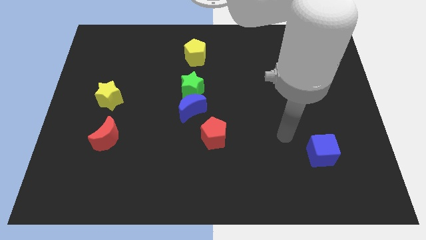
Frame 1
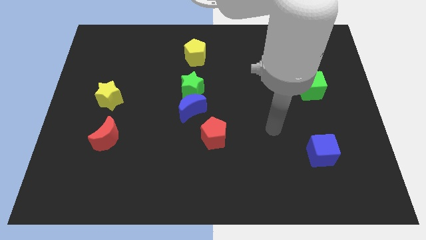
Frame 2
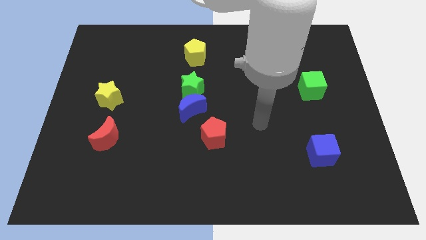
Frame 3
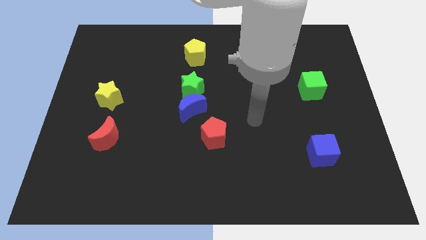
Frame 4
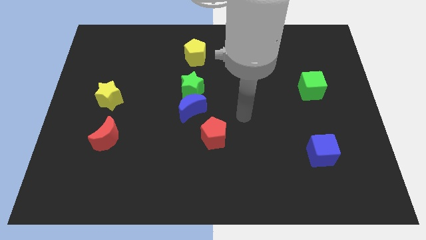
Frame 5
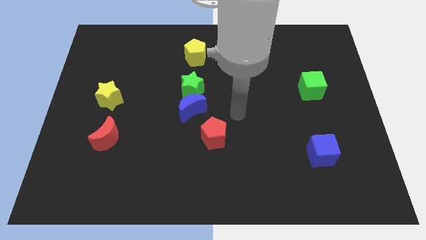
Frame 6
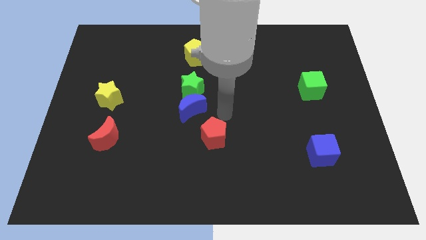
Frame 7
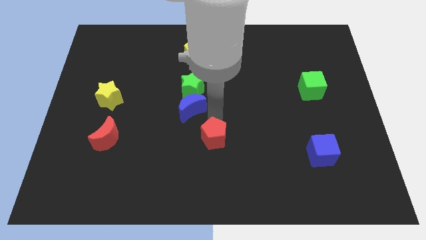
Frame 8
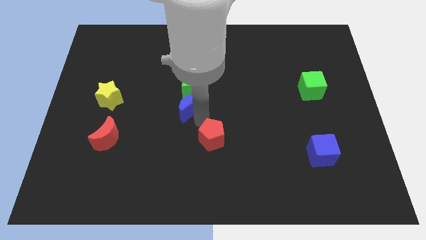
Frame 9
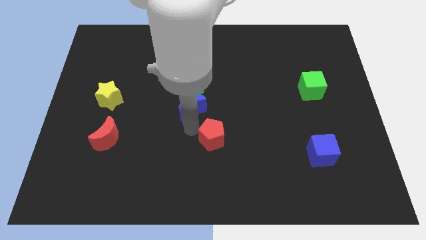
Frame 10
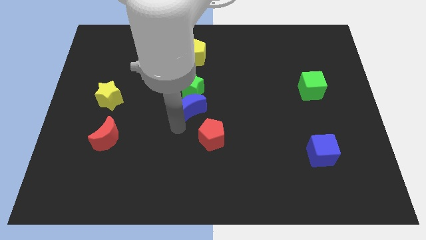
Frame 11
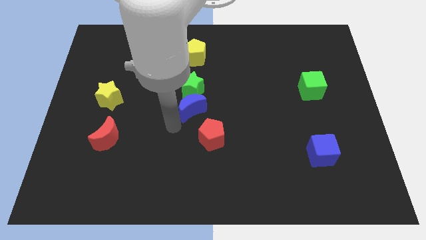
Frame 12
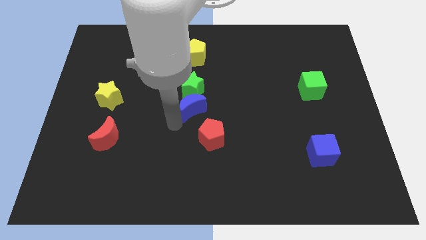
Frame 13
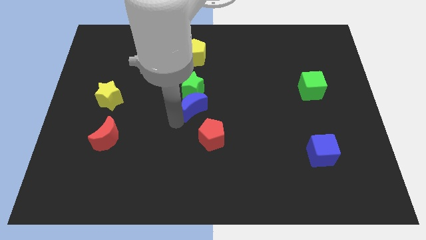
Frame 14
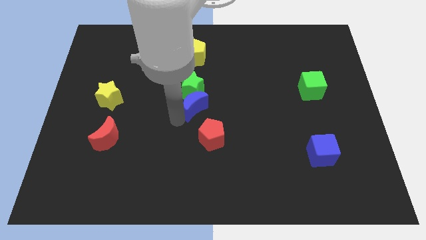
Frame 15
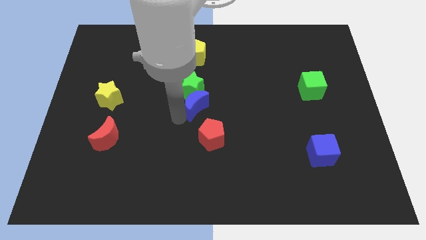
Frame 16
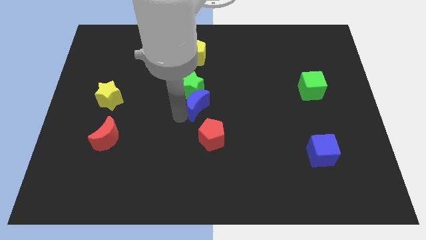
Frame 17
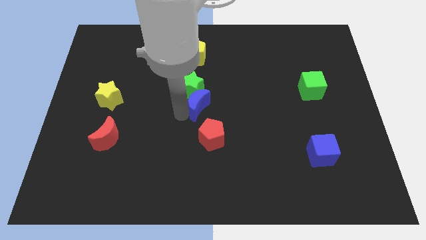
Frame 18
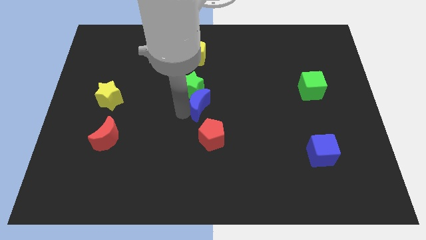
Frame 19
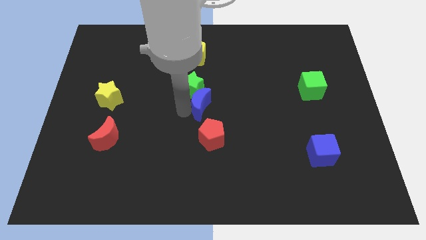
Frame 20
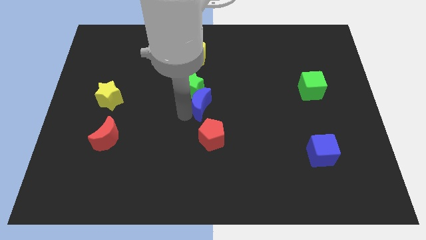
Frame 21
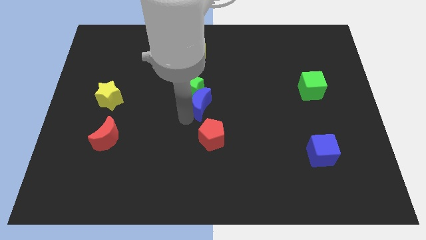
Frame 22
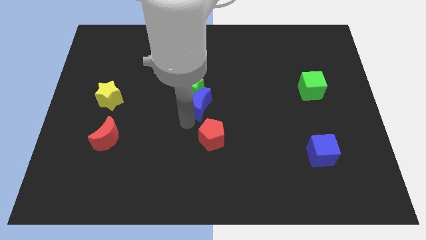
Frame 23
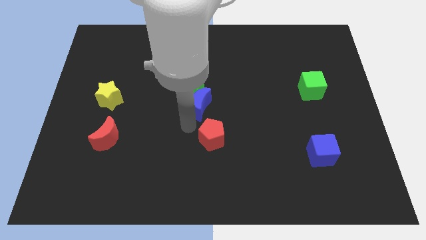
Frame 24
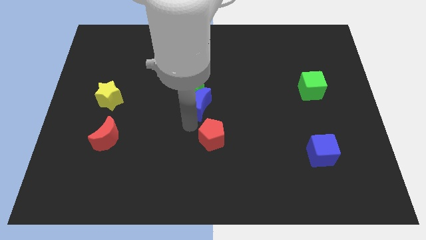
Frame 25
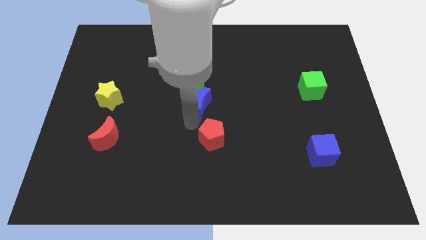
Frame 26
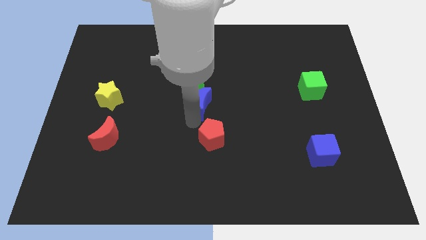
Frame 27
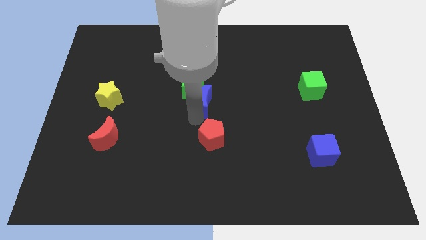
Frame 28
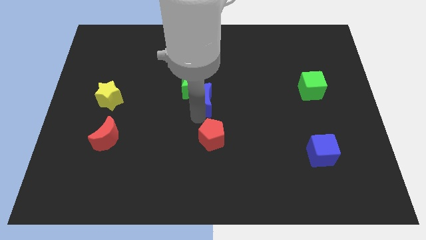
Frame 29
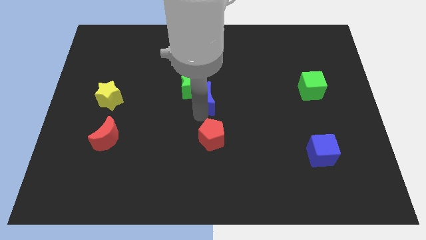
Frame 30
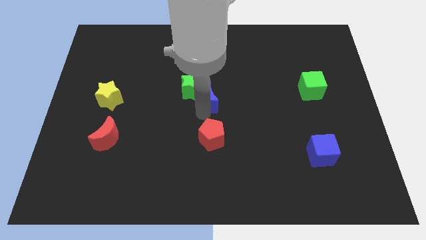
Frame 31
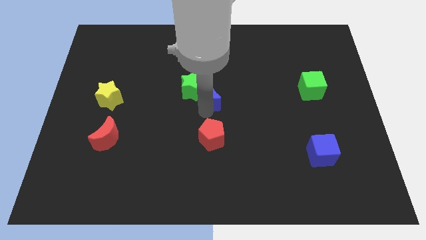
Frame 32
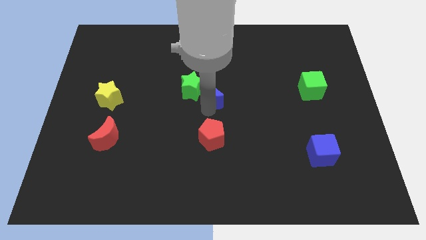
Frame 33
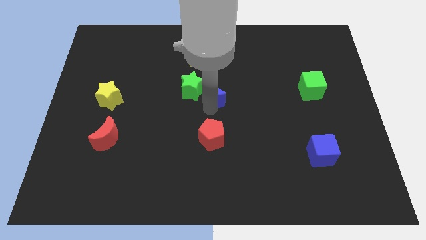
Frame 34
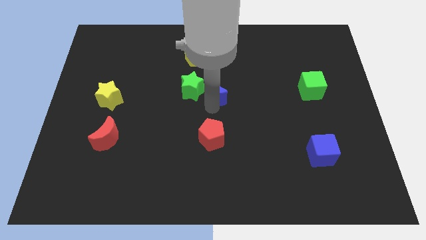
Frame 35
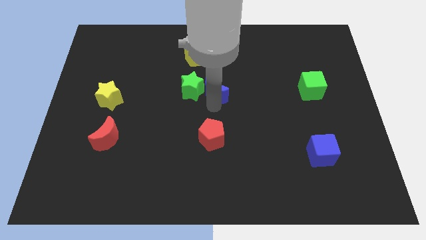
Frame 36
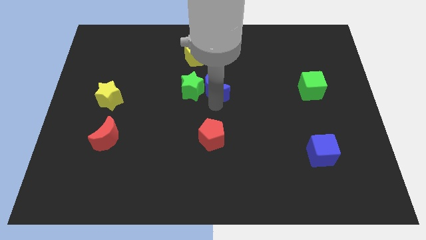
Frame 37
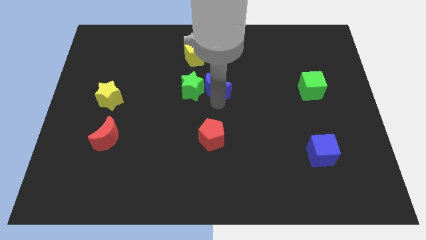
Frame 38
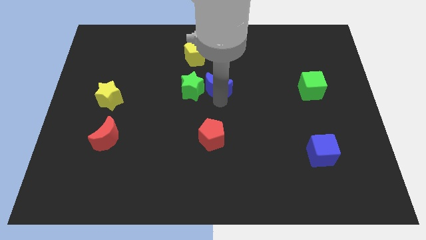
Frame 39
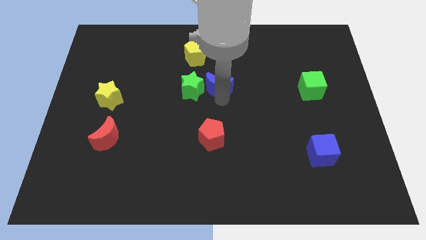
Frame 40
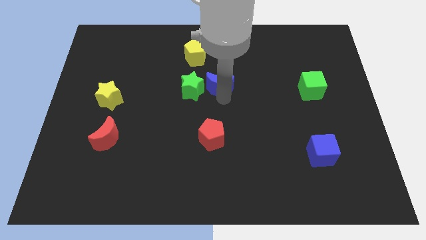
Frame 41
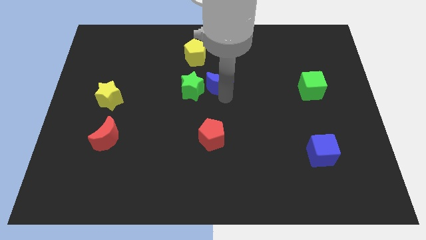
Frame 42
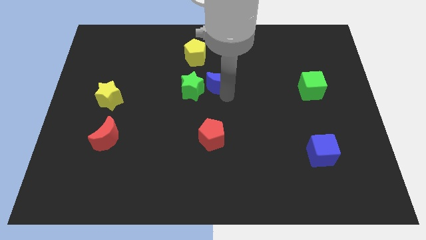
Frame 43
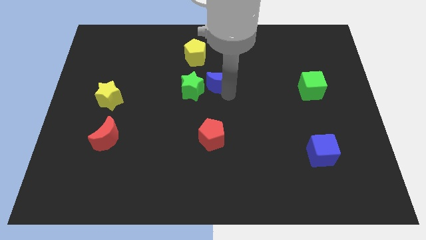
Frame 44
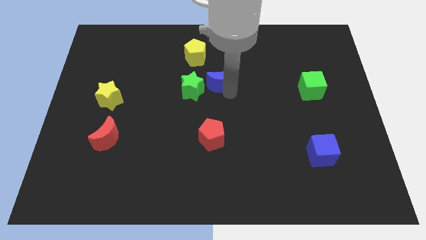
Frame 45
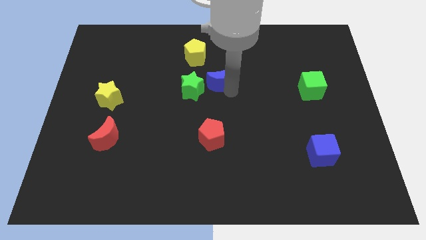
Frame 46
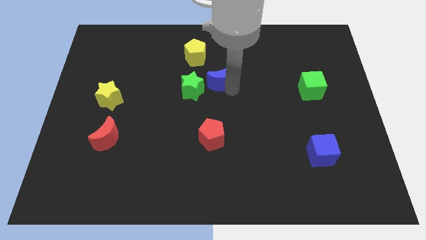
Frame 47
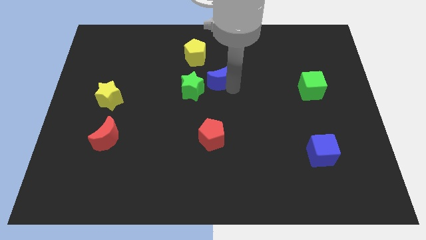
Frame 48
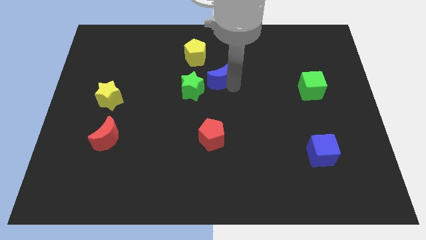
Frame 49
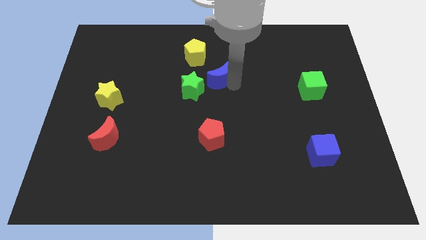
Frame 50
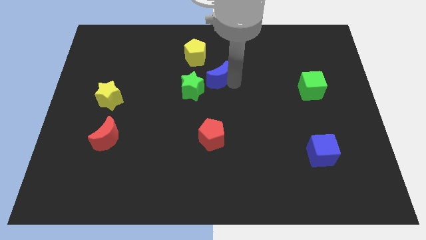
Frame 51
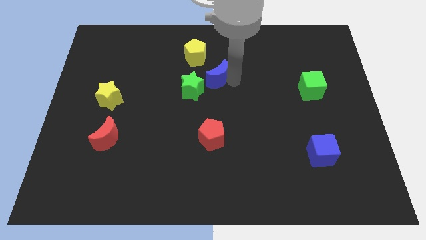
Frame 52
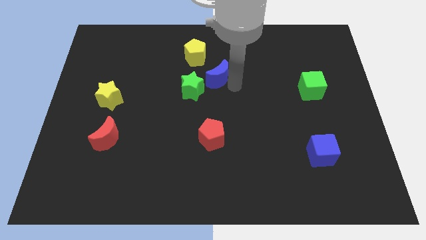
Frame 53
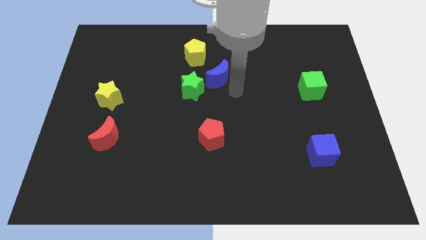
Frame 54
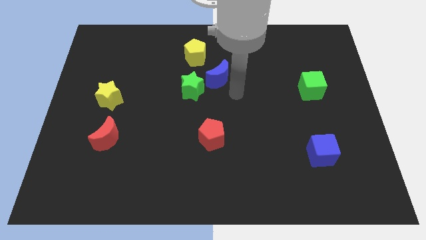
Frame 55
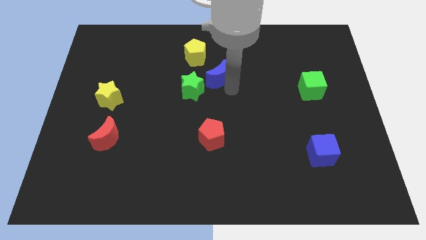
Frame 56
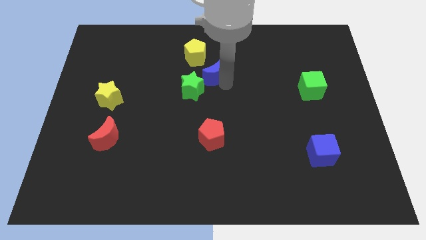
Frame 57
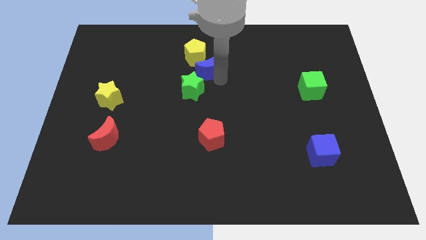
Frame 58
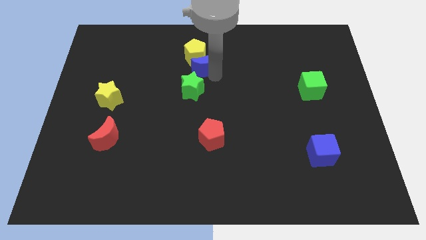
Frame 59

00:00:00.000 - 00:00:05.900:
slide the blue moon next to the yellow pentagon

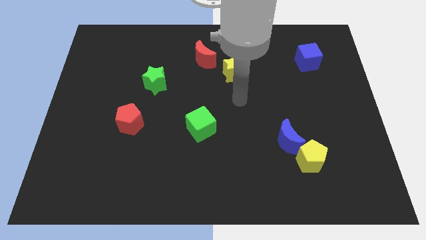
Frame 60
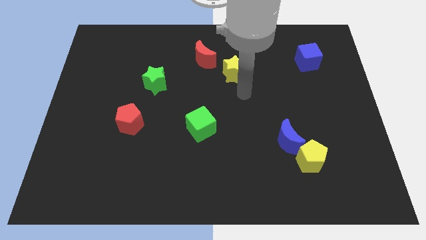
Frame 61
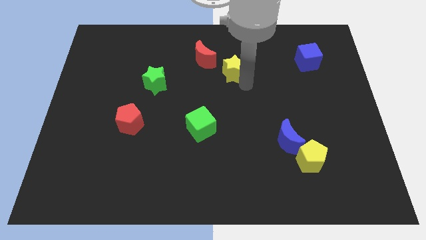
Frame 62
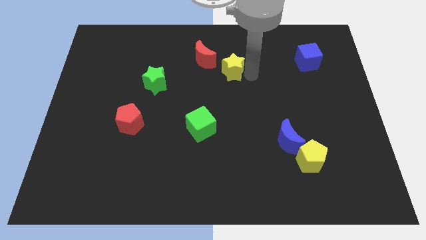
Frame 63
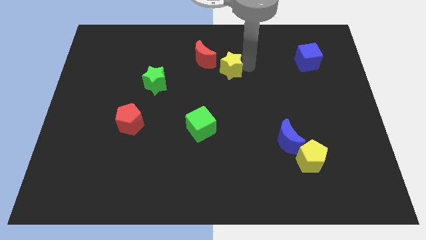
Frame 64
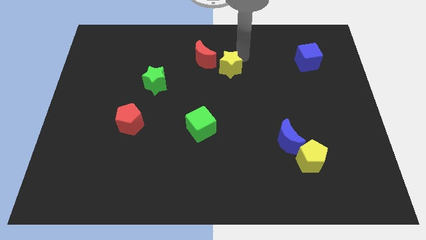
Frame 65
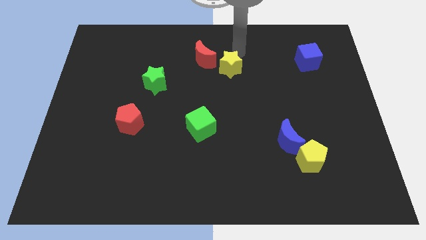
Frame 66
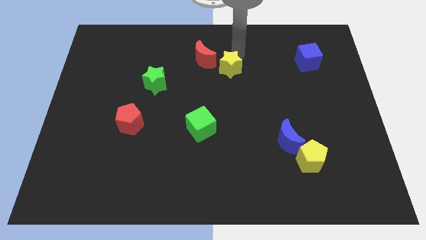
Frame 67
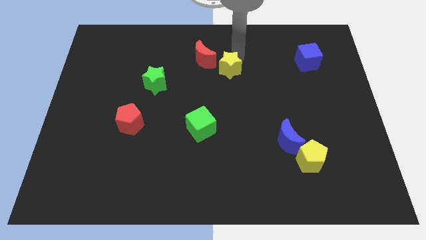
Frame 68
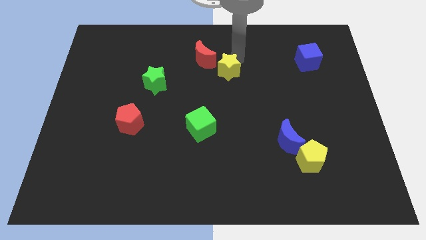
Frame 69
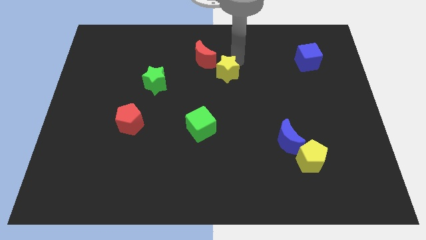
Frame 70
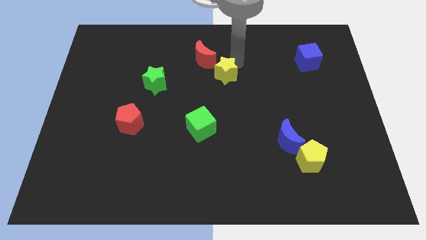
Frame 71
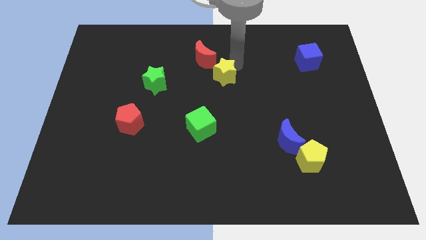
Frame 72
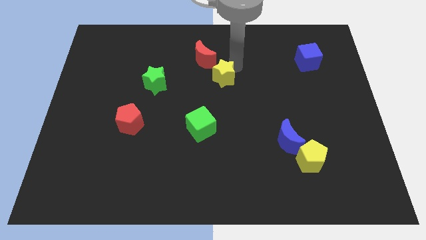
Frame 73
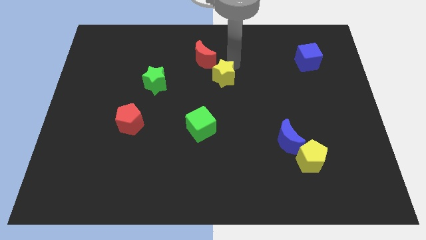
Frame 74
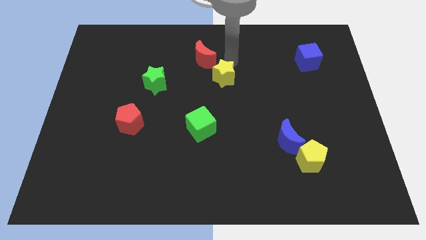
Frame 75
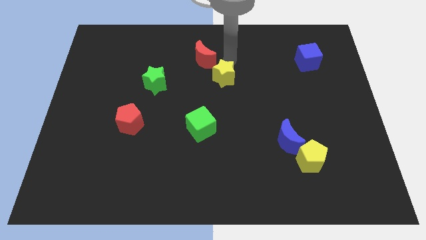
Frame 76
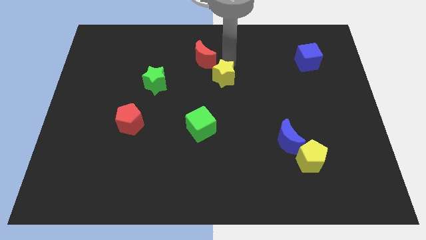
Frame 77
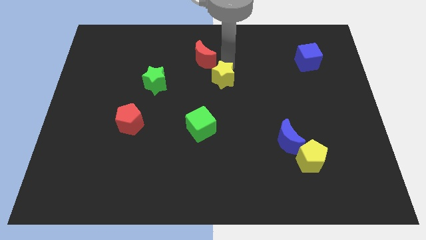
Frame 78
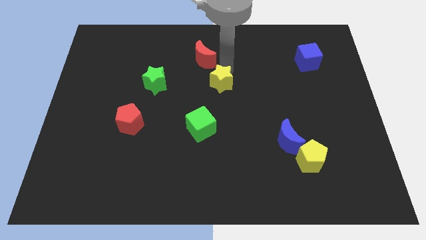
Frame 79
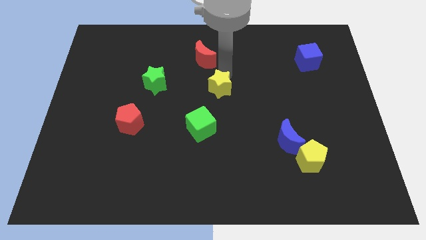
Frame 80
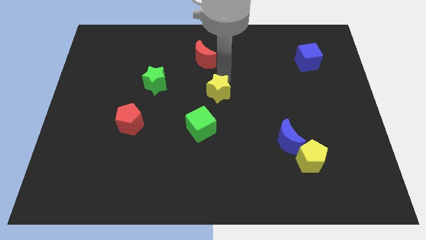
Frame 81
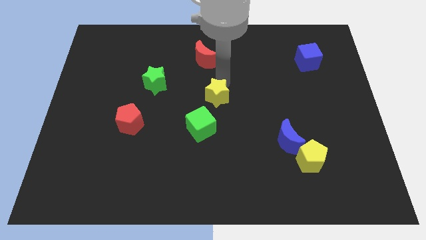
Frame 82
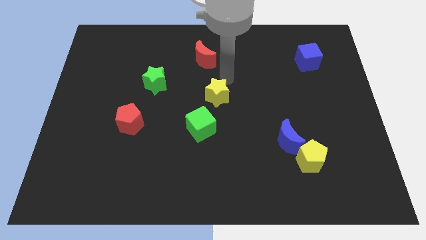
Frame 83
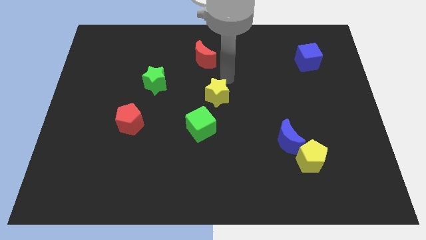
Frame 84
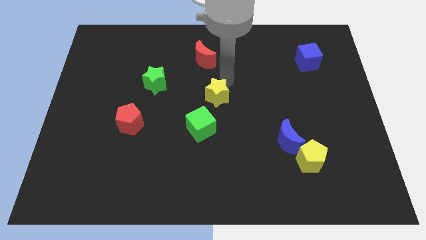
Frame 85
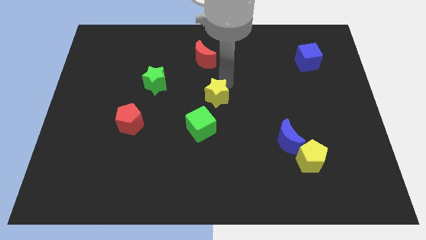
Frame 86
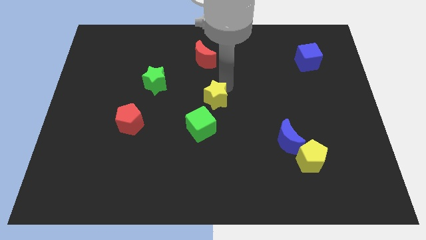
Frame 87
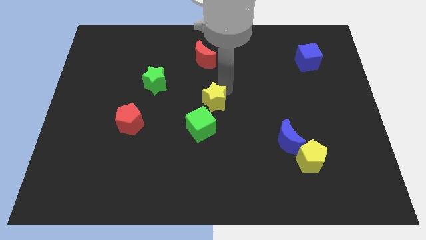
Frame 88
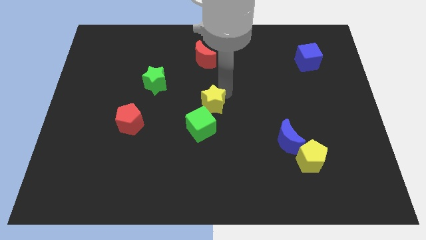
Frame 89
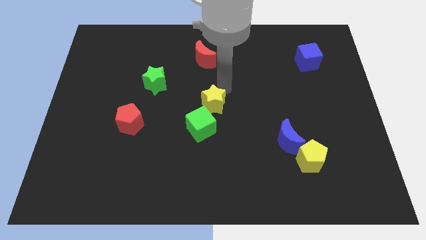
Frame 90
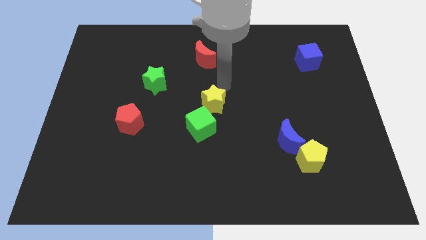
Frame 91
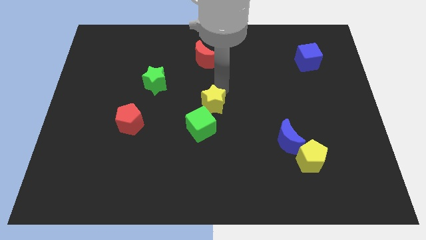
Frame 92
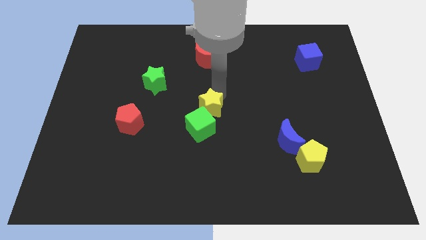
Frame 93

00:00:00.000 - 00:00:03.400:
slide the yellow star close to the green cube
